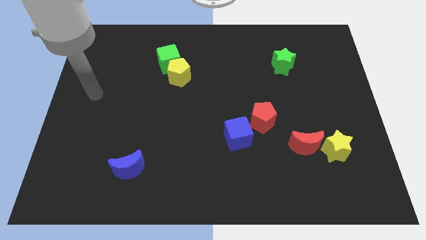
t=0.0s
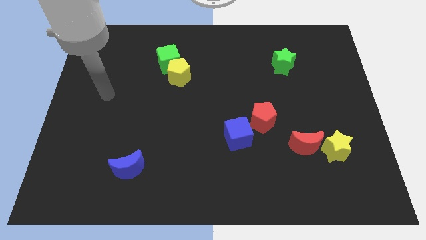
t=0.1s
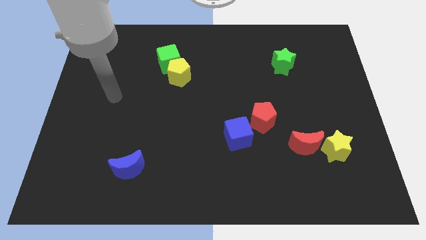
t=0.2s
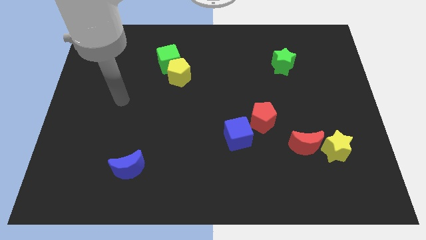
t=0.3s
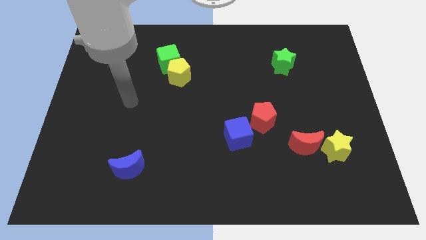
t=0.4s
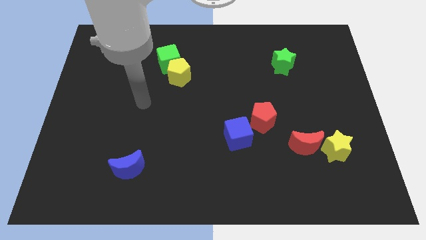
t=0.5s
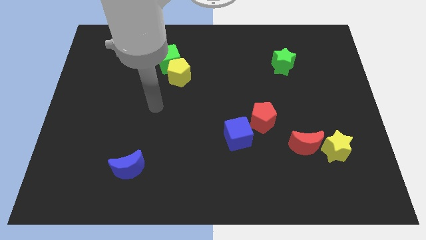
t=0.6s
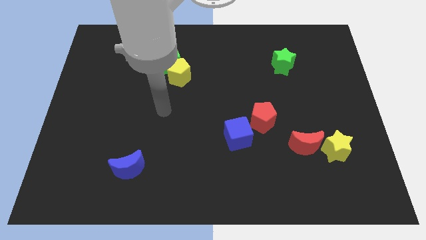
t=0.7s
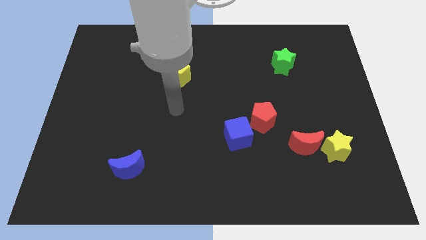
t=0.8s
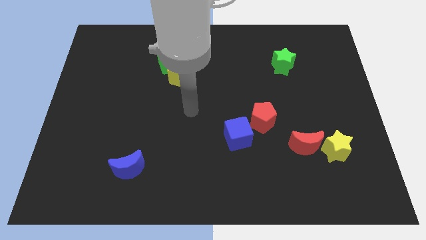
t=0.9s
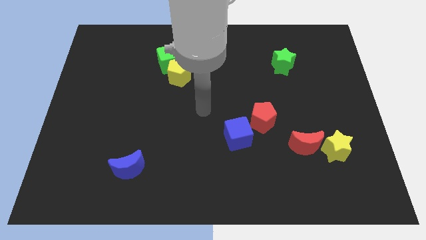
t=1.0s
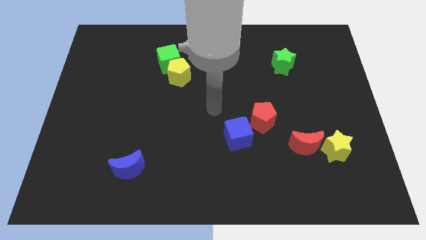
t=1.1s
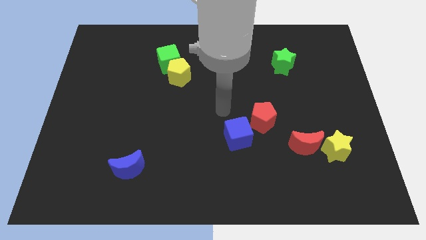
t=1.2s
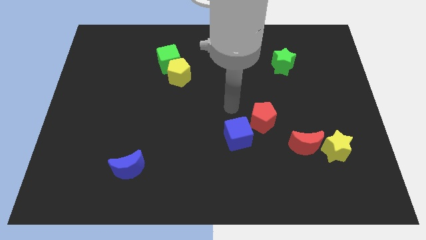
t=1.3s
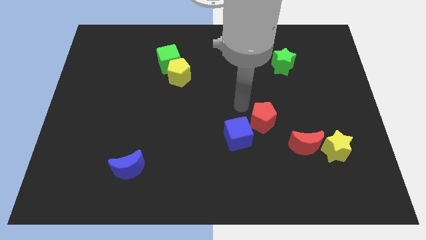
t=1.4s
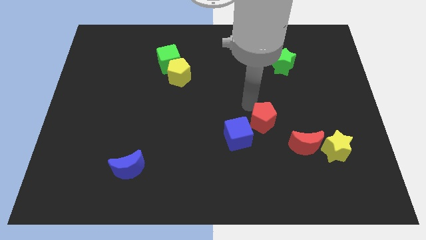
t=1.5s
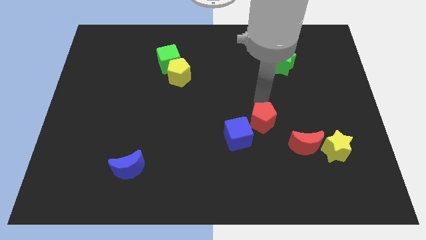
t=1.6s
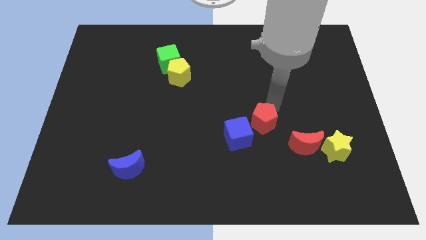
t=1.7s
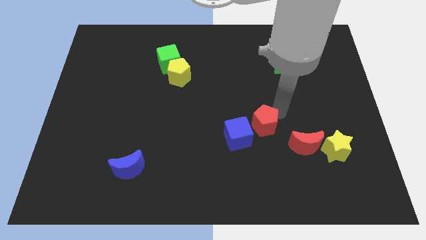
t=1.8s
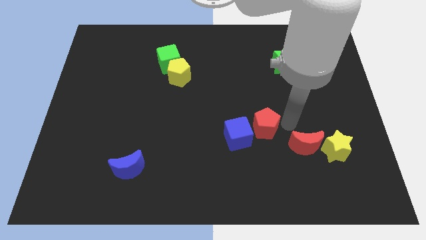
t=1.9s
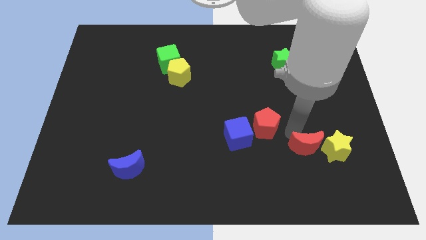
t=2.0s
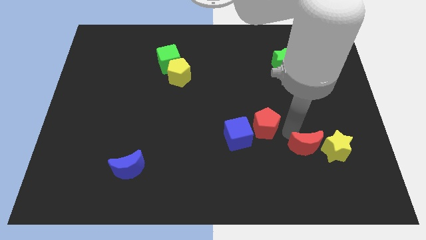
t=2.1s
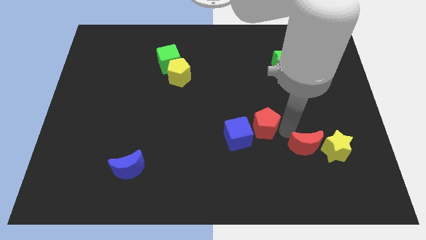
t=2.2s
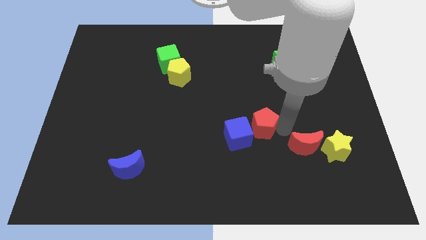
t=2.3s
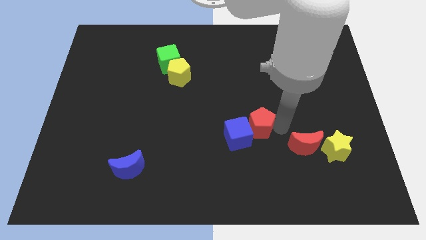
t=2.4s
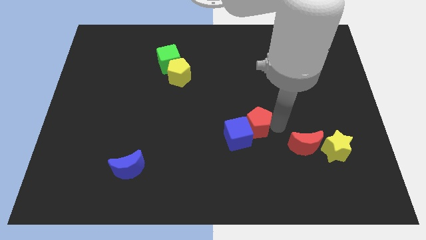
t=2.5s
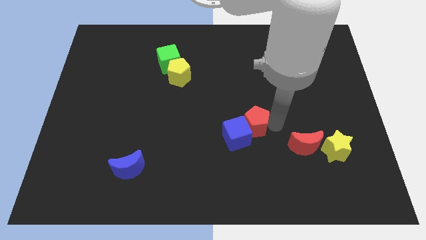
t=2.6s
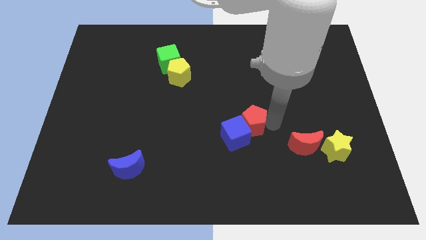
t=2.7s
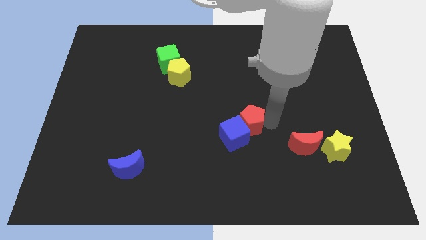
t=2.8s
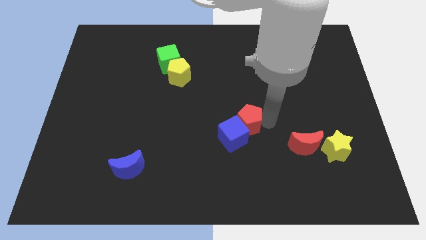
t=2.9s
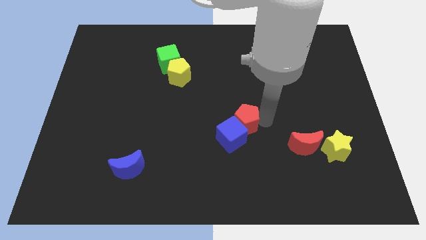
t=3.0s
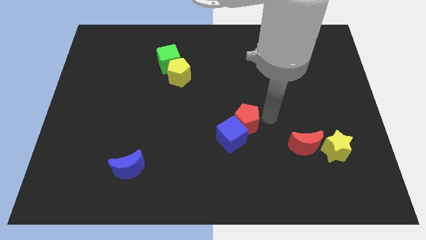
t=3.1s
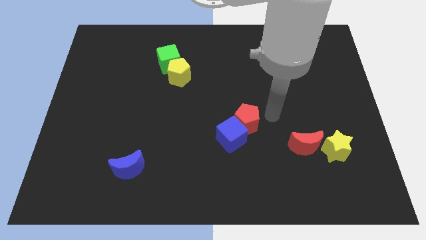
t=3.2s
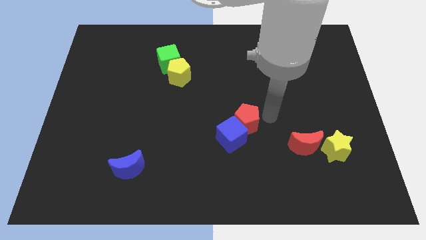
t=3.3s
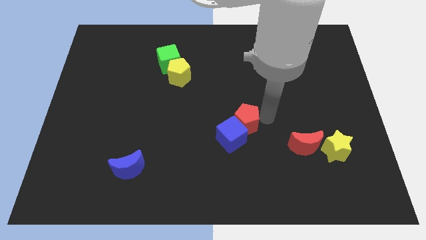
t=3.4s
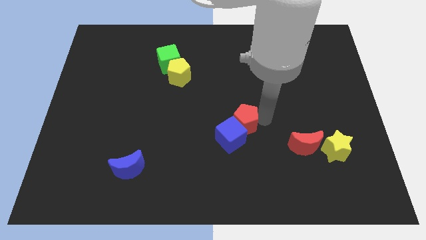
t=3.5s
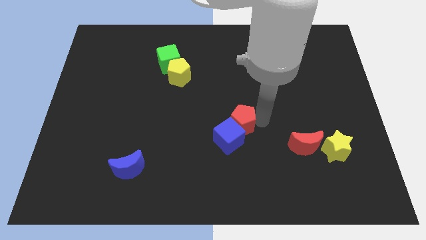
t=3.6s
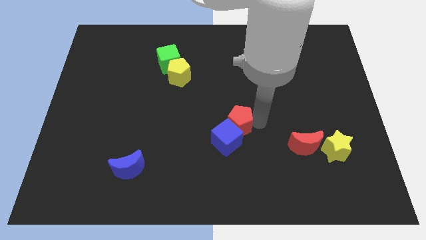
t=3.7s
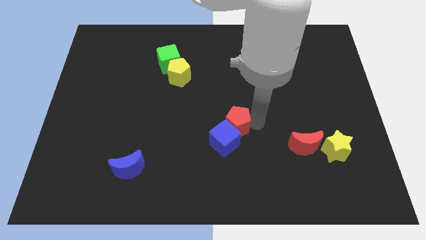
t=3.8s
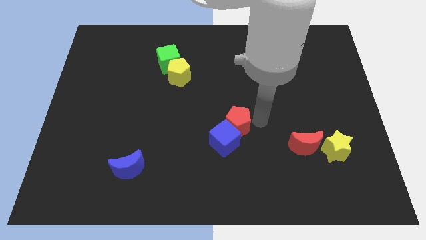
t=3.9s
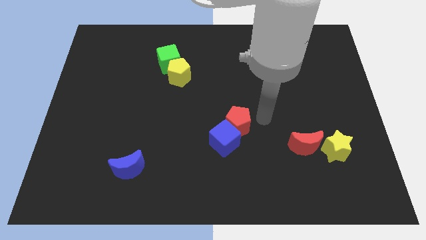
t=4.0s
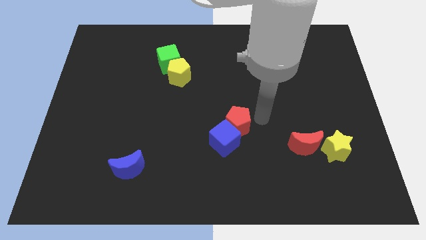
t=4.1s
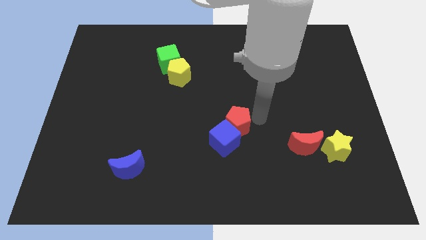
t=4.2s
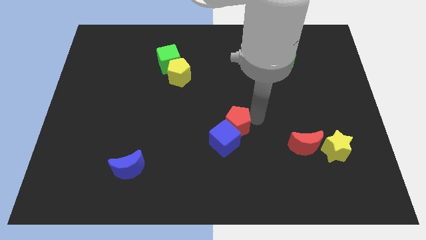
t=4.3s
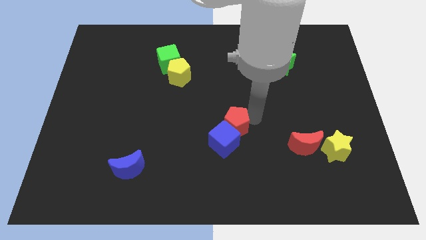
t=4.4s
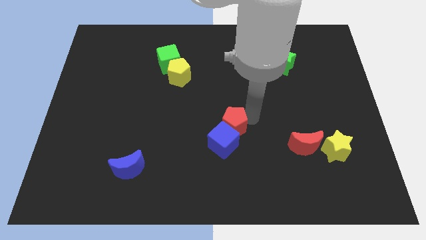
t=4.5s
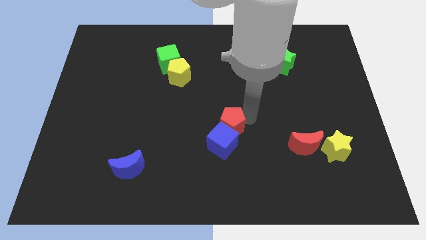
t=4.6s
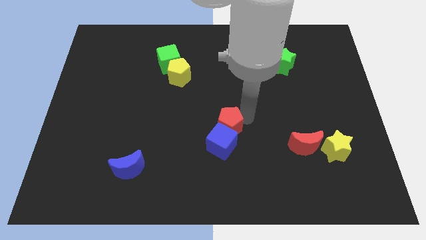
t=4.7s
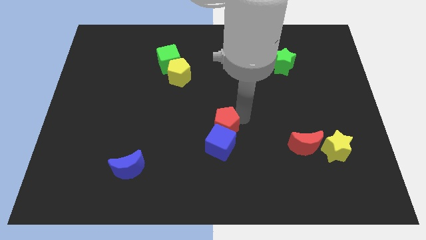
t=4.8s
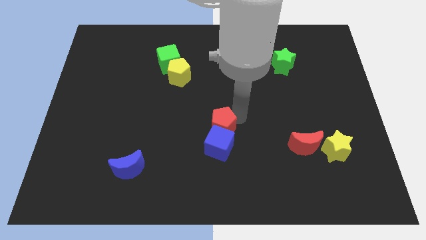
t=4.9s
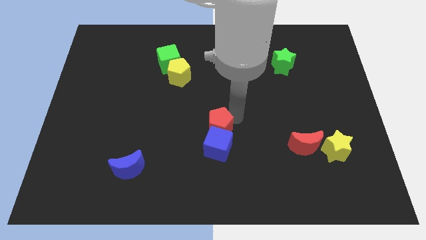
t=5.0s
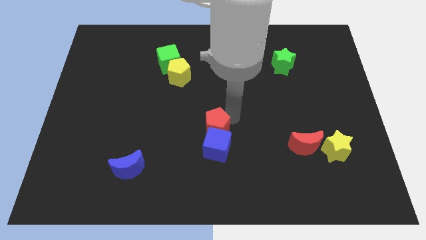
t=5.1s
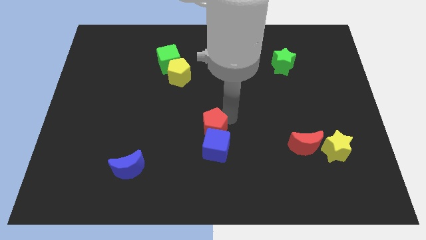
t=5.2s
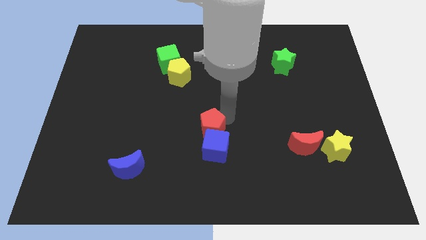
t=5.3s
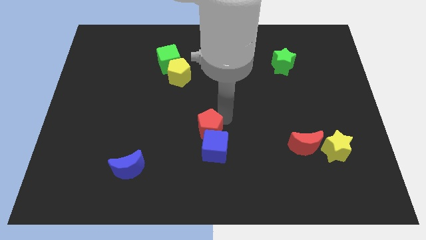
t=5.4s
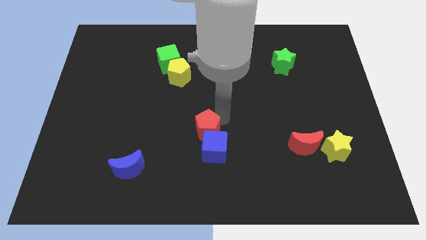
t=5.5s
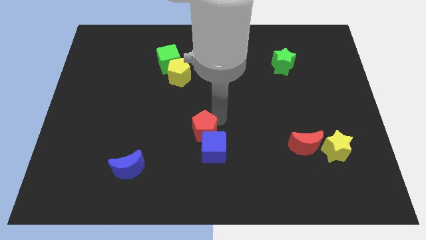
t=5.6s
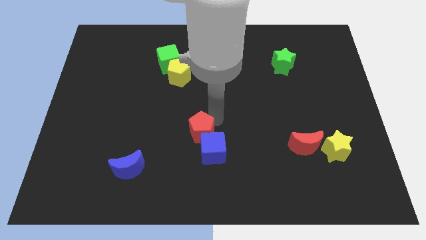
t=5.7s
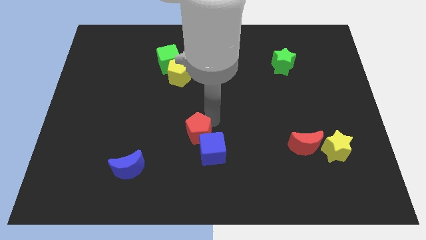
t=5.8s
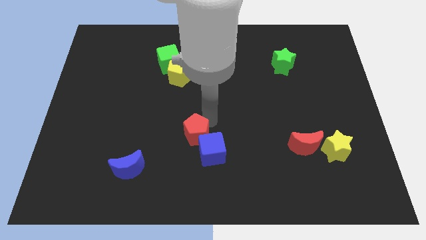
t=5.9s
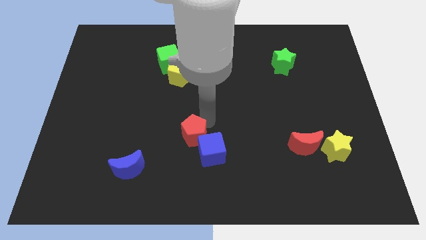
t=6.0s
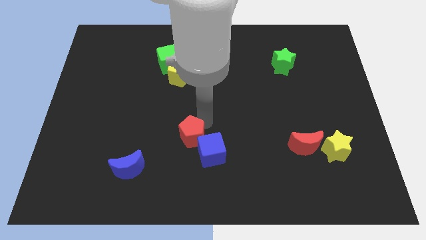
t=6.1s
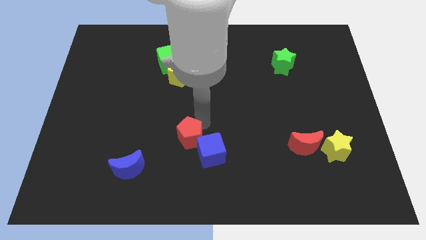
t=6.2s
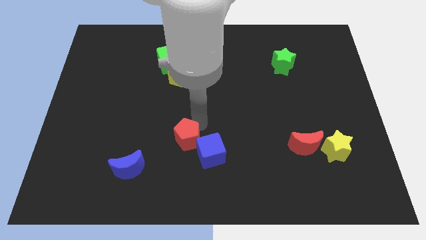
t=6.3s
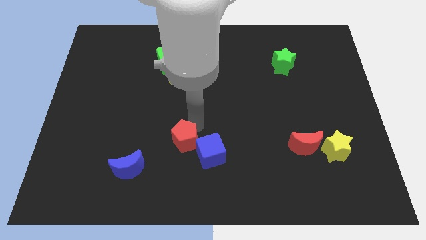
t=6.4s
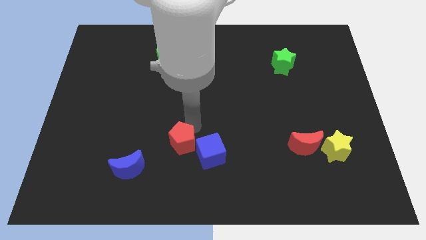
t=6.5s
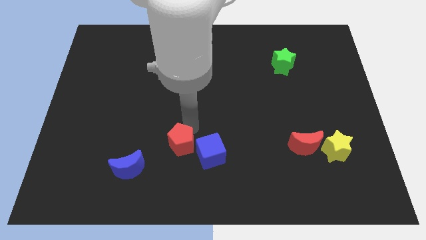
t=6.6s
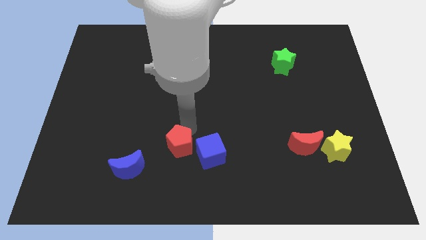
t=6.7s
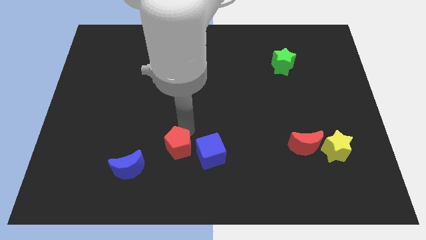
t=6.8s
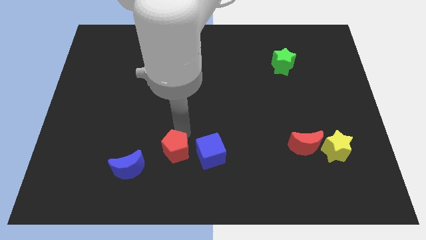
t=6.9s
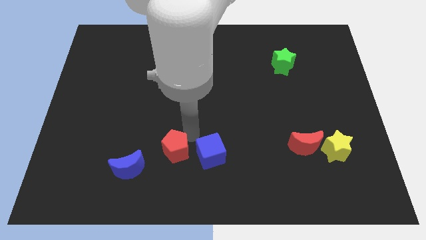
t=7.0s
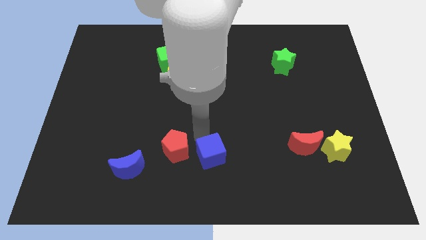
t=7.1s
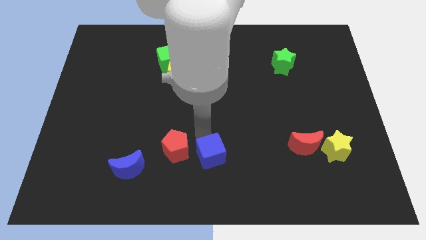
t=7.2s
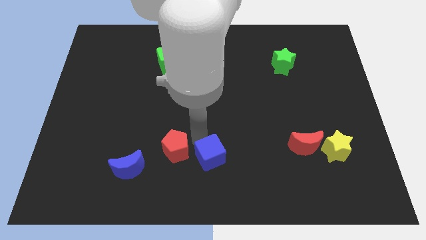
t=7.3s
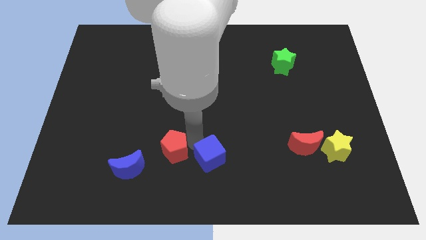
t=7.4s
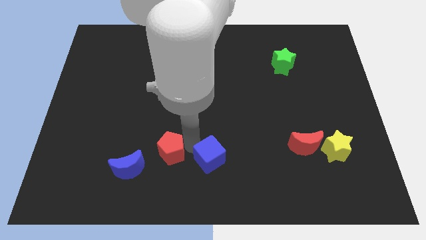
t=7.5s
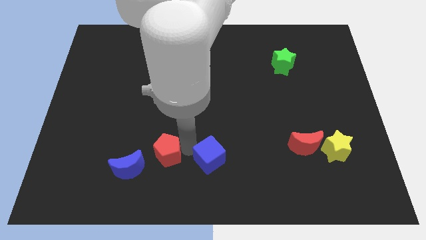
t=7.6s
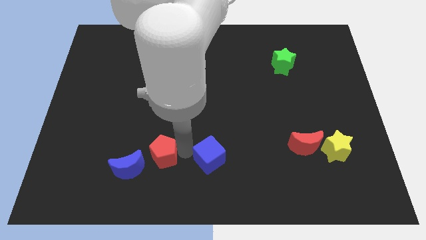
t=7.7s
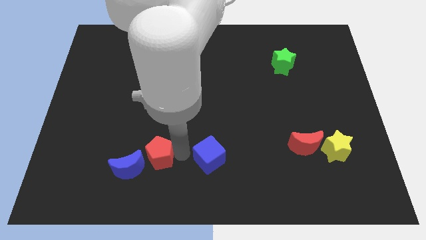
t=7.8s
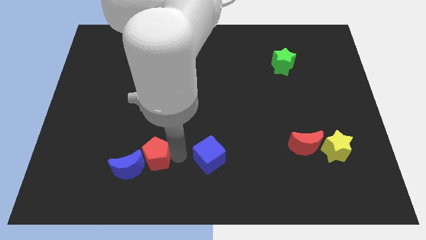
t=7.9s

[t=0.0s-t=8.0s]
slide the red pentagon towards the blue moon
